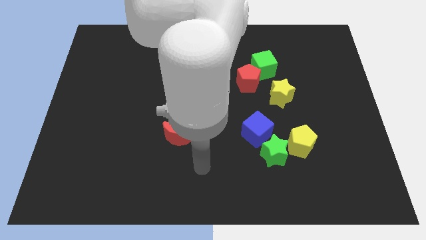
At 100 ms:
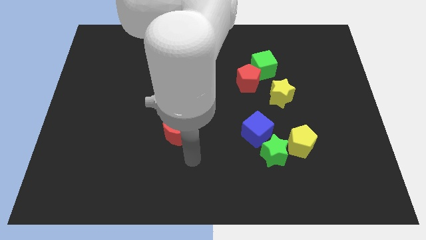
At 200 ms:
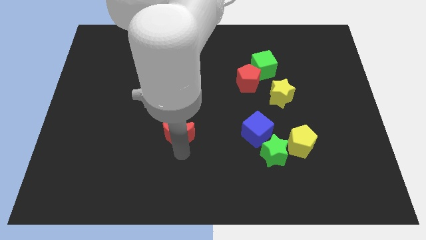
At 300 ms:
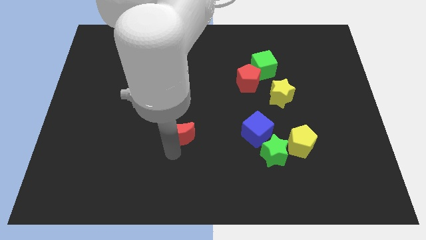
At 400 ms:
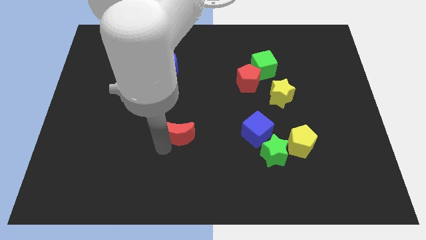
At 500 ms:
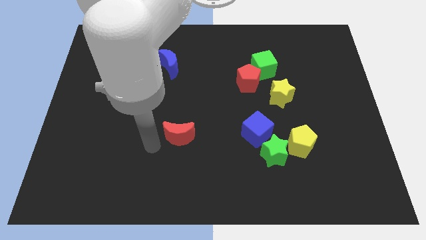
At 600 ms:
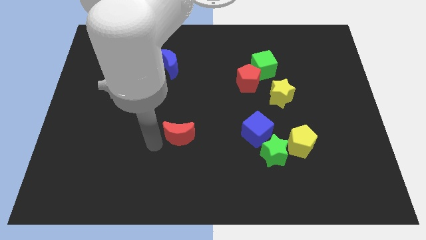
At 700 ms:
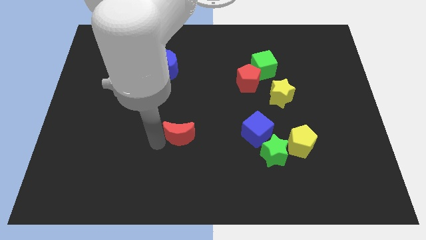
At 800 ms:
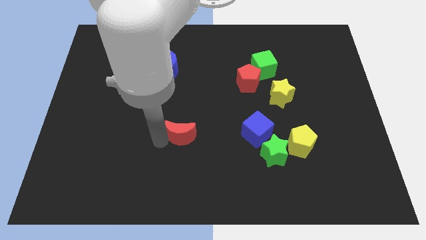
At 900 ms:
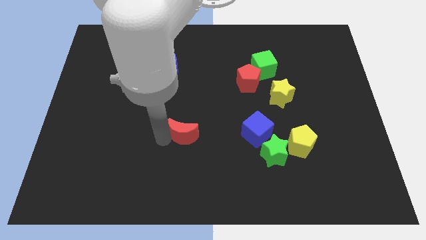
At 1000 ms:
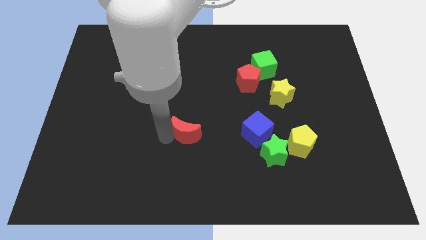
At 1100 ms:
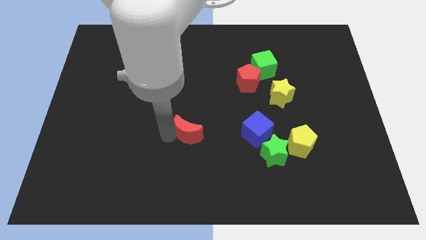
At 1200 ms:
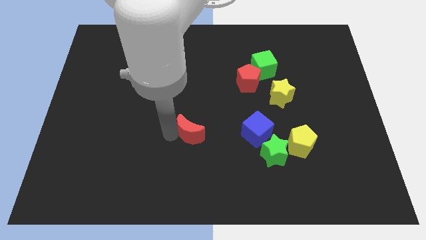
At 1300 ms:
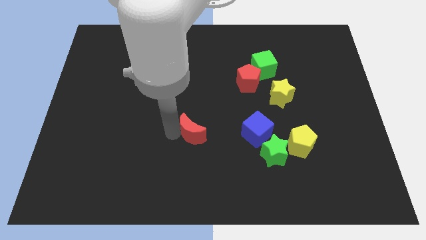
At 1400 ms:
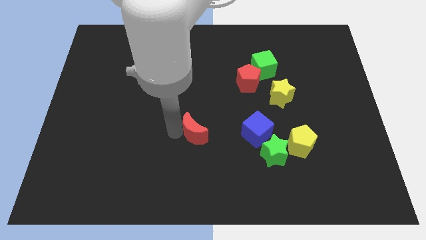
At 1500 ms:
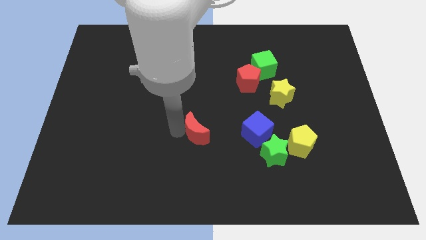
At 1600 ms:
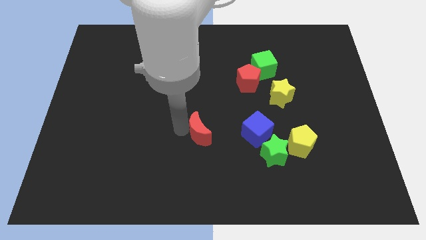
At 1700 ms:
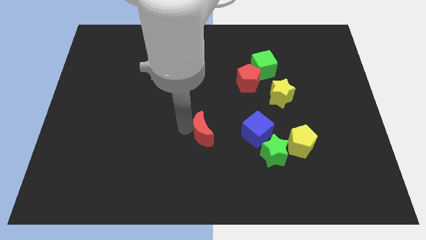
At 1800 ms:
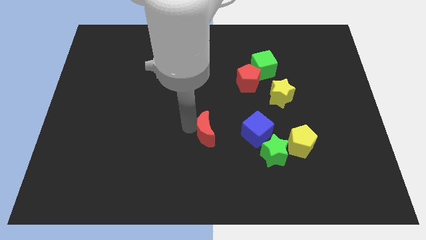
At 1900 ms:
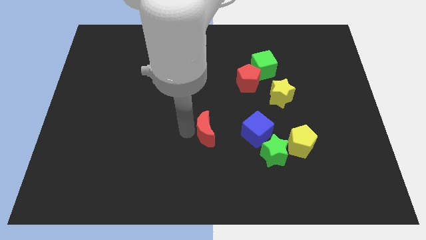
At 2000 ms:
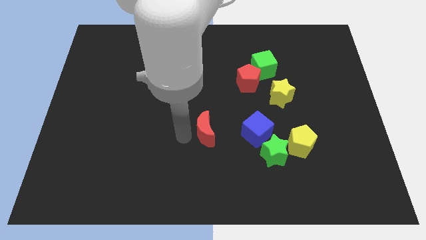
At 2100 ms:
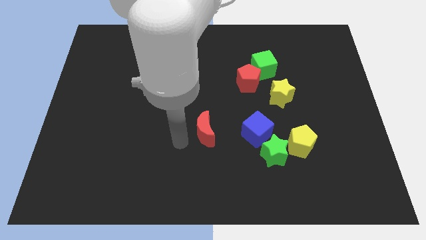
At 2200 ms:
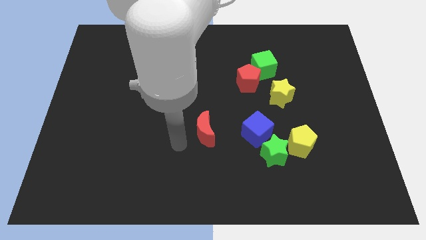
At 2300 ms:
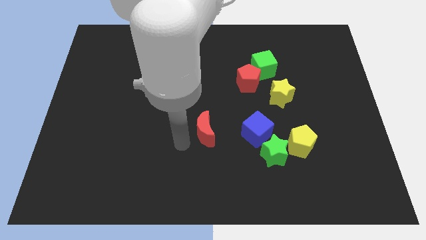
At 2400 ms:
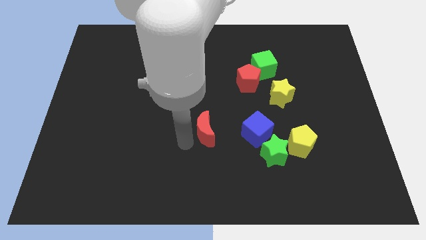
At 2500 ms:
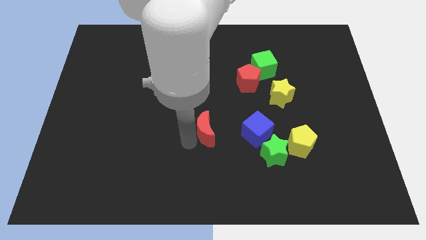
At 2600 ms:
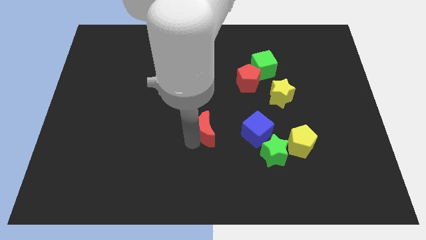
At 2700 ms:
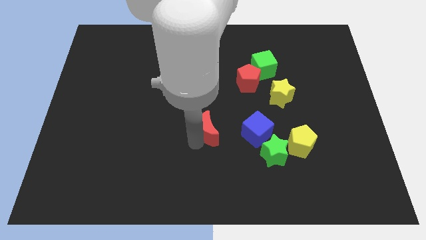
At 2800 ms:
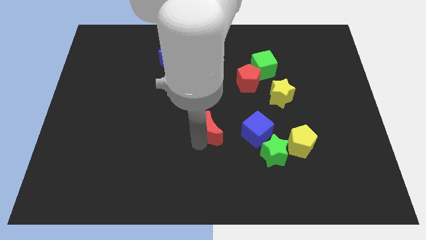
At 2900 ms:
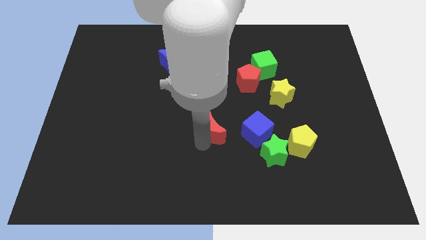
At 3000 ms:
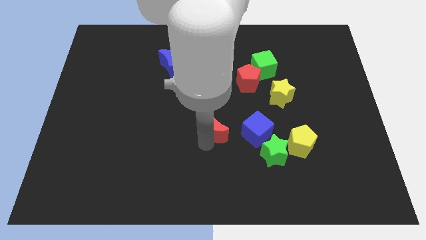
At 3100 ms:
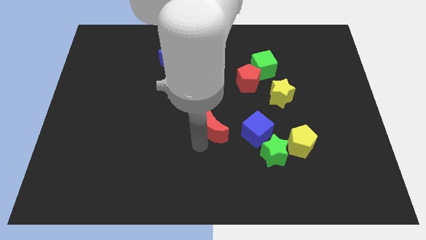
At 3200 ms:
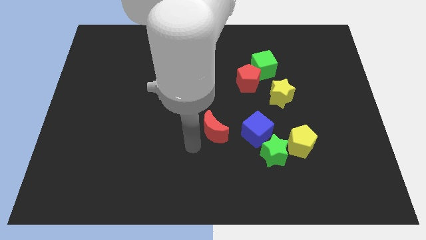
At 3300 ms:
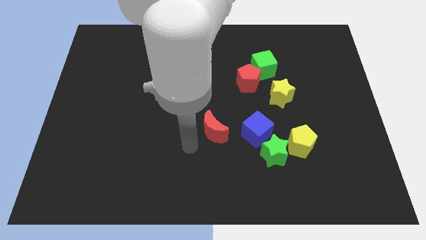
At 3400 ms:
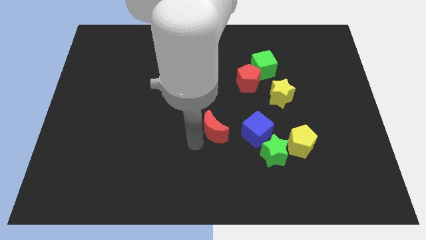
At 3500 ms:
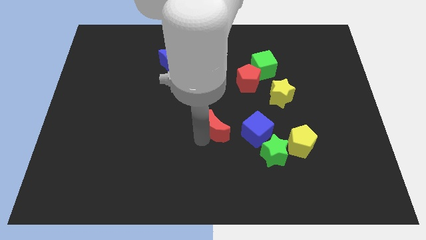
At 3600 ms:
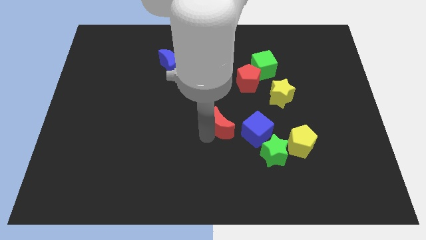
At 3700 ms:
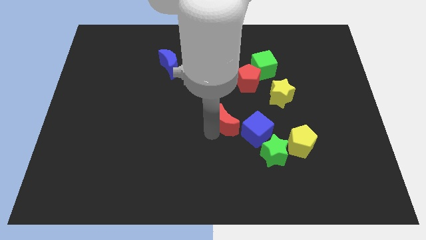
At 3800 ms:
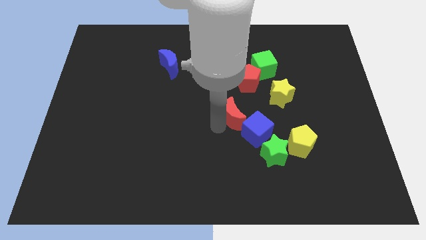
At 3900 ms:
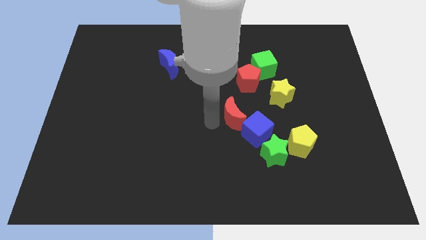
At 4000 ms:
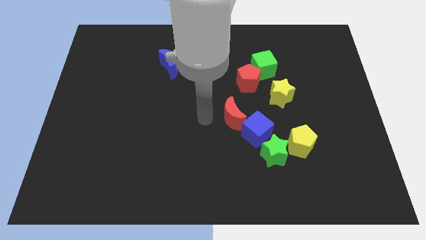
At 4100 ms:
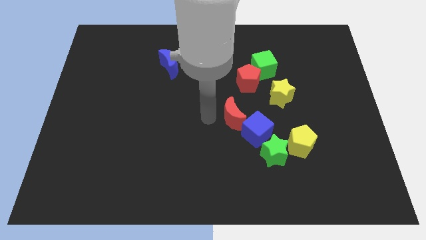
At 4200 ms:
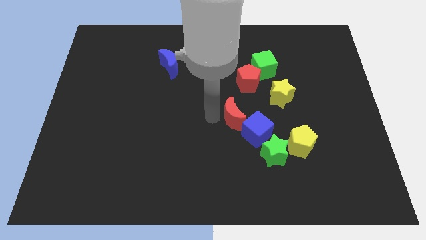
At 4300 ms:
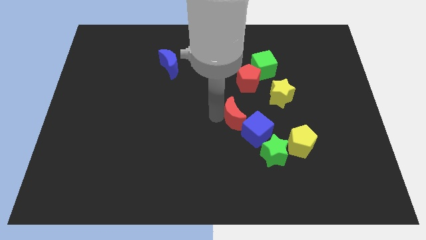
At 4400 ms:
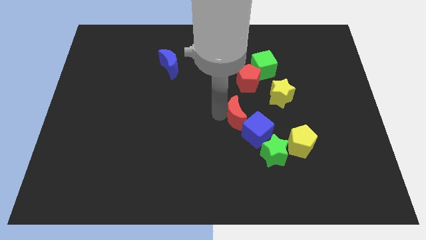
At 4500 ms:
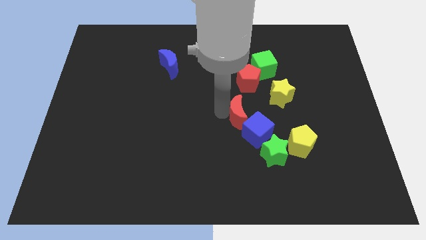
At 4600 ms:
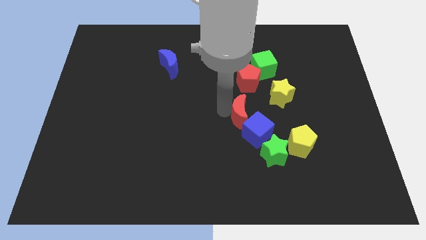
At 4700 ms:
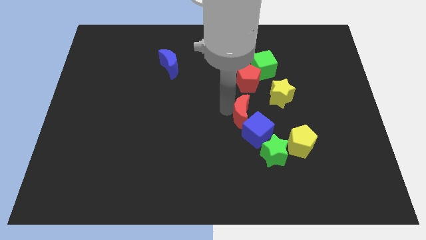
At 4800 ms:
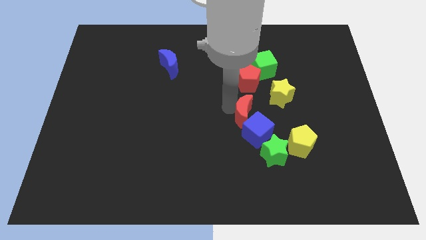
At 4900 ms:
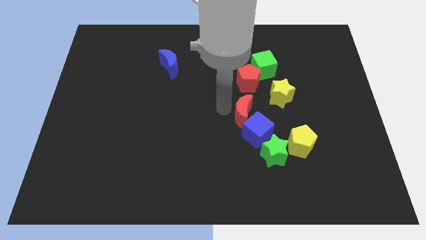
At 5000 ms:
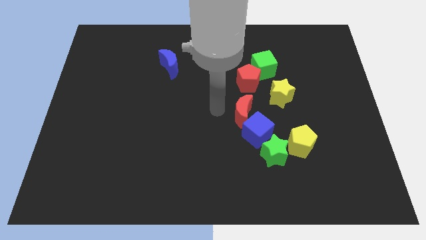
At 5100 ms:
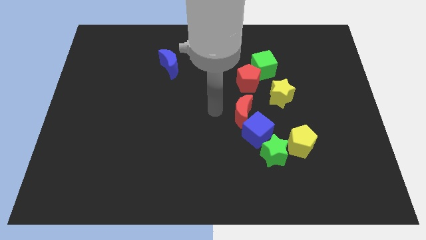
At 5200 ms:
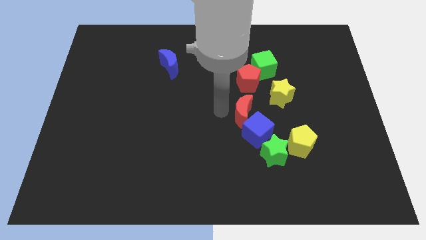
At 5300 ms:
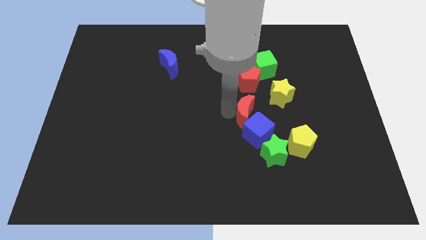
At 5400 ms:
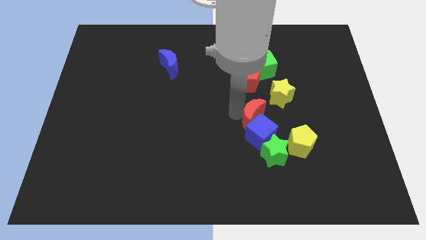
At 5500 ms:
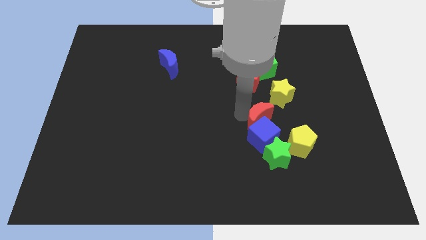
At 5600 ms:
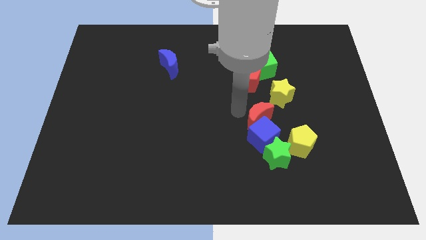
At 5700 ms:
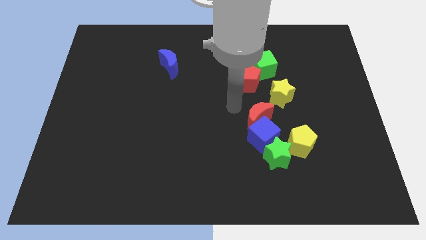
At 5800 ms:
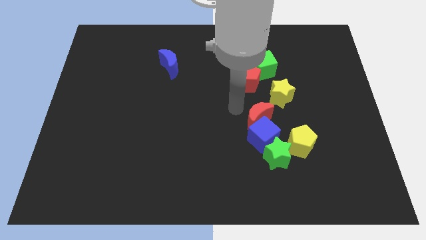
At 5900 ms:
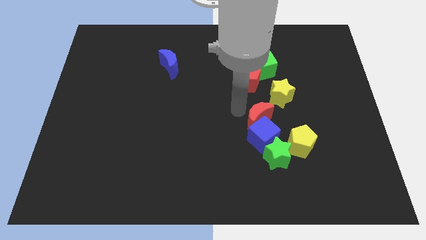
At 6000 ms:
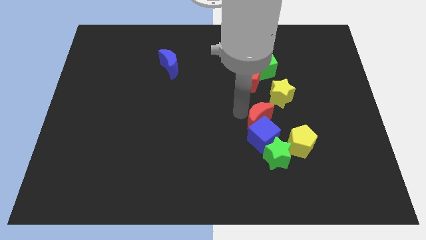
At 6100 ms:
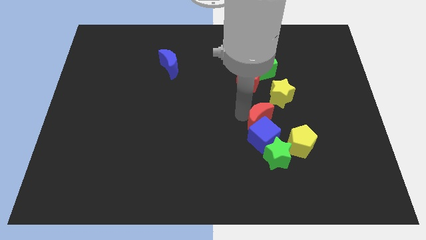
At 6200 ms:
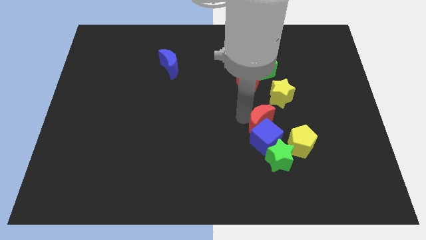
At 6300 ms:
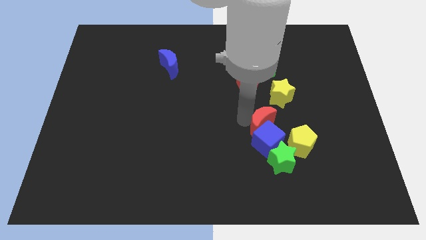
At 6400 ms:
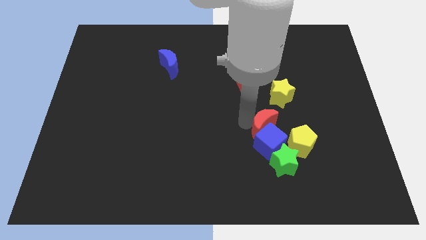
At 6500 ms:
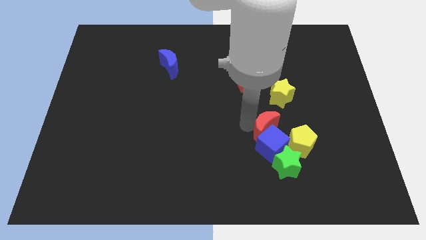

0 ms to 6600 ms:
put the red moon to the bottom of the yellow star
